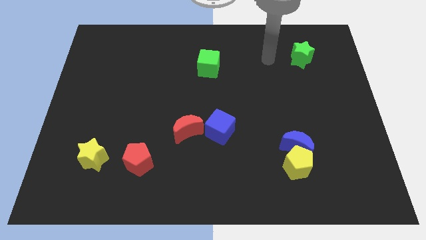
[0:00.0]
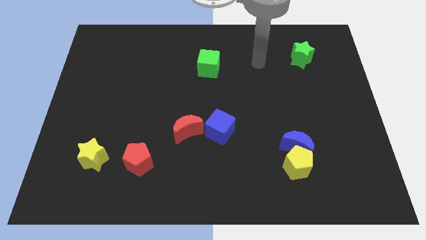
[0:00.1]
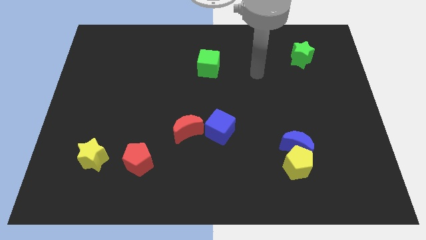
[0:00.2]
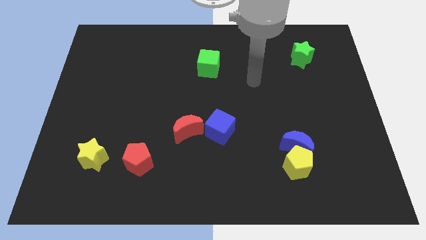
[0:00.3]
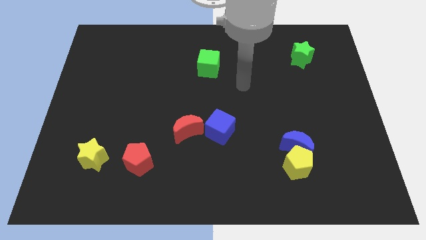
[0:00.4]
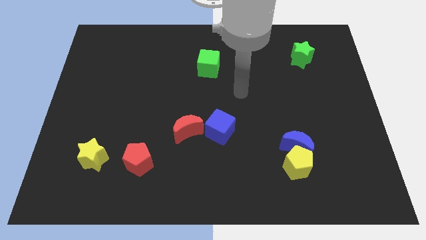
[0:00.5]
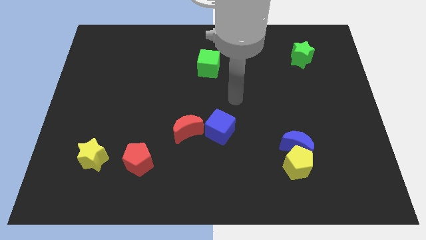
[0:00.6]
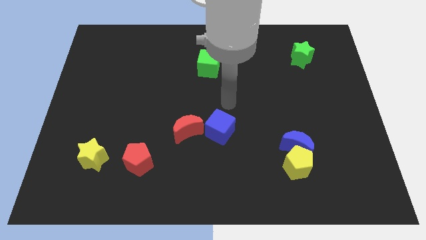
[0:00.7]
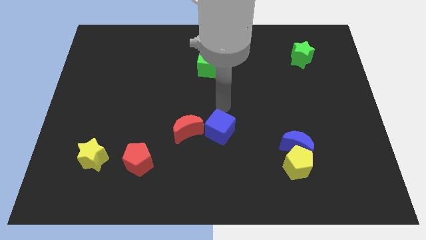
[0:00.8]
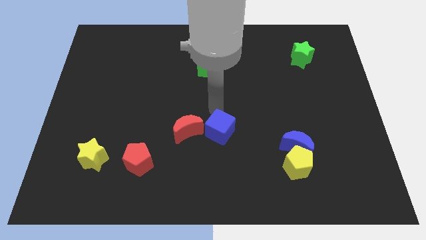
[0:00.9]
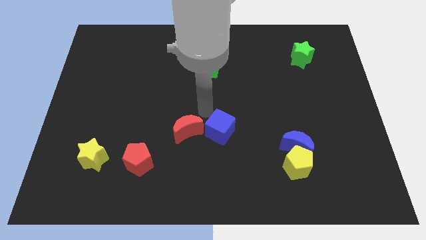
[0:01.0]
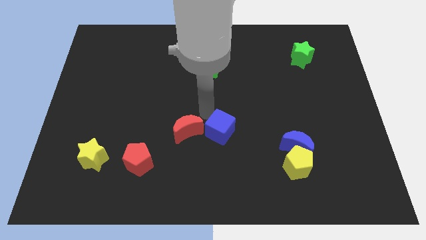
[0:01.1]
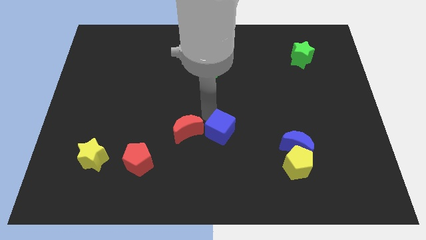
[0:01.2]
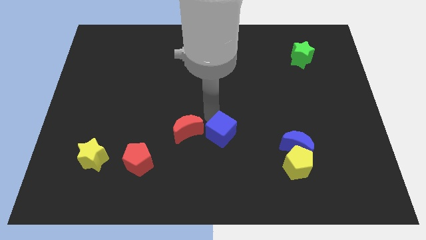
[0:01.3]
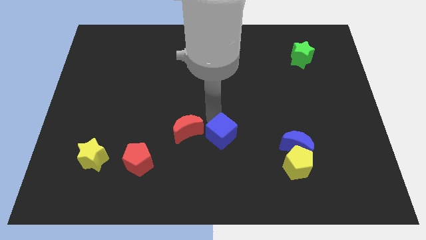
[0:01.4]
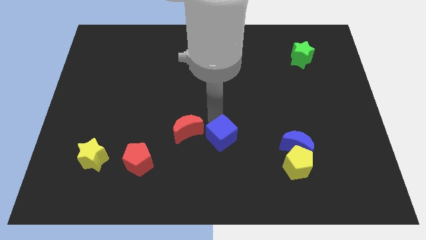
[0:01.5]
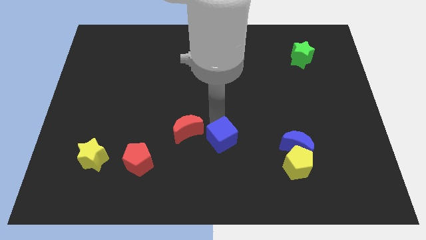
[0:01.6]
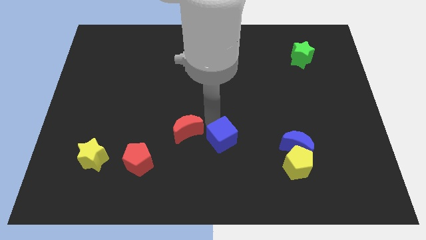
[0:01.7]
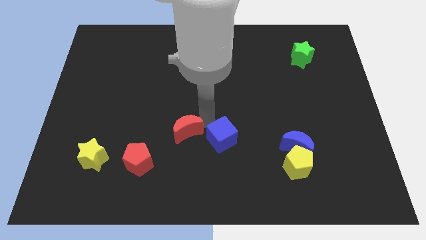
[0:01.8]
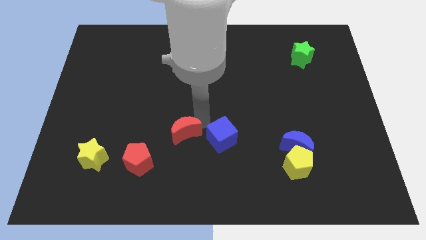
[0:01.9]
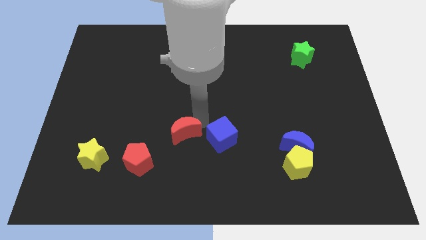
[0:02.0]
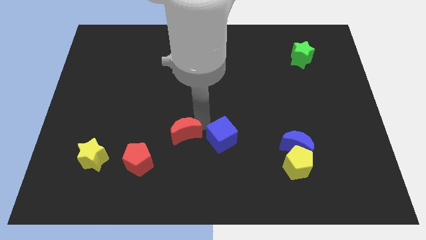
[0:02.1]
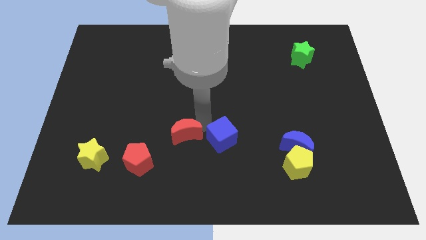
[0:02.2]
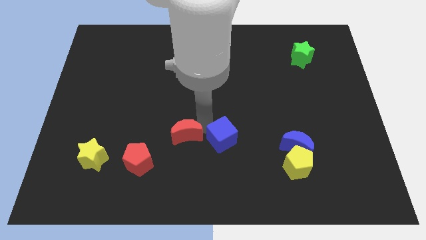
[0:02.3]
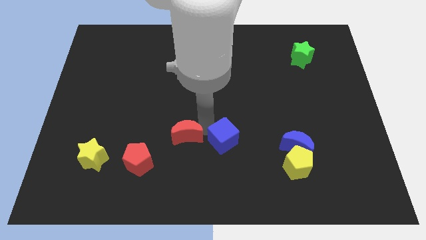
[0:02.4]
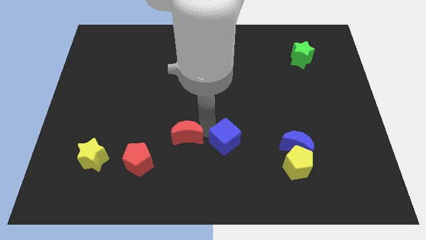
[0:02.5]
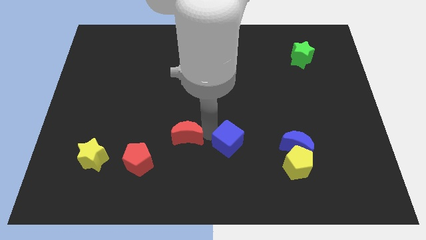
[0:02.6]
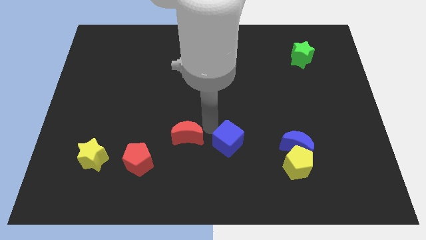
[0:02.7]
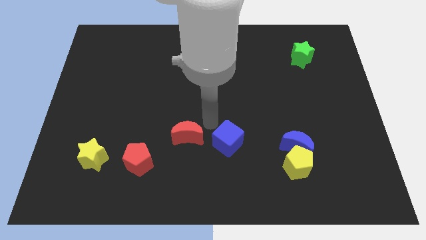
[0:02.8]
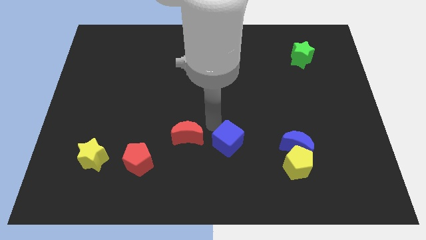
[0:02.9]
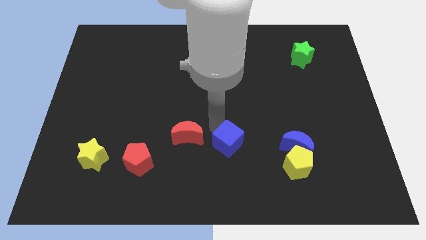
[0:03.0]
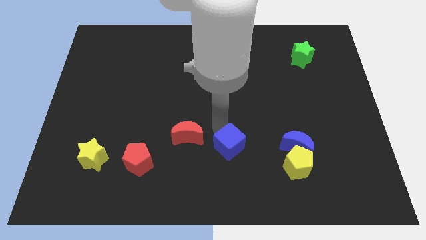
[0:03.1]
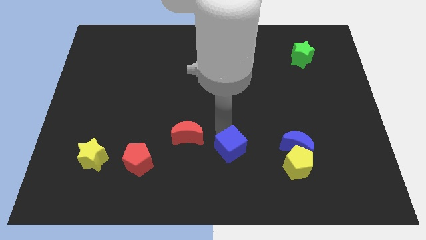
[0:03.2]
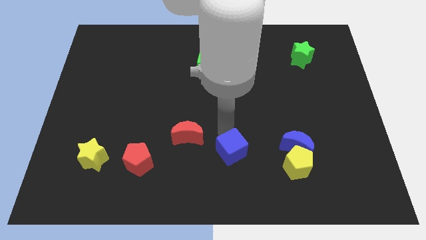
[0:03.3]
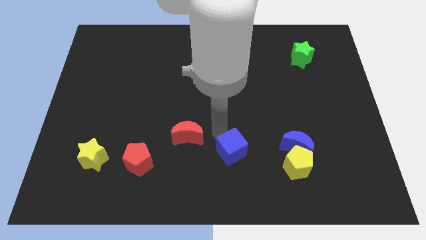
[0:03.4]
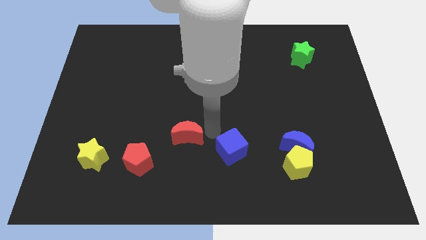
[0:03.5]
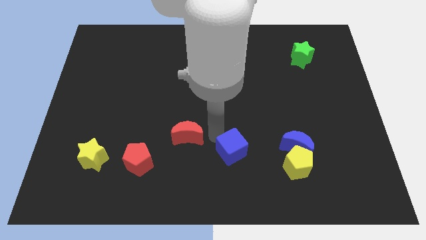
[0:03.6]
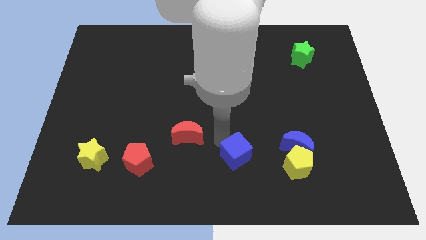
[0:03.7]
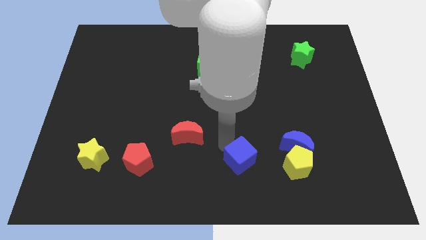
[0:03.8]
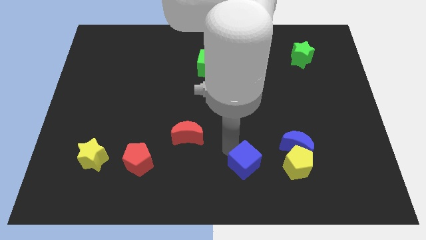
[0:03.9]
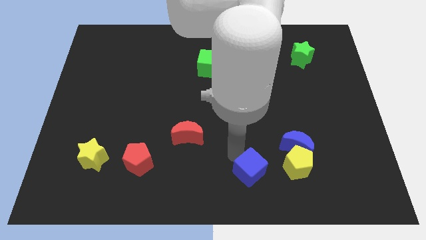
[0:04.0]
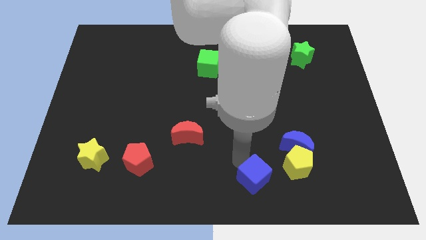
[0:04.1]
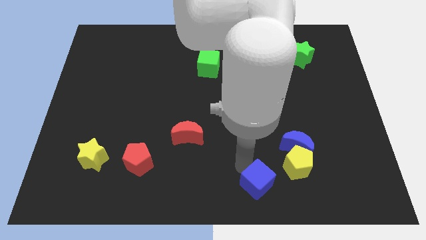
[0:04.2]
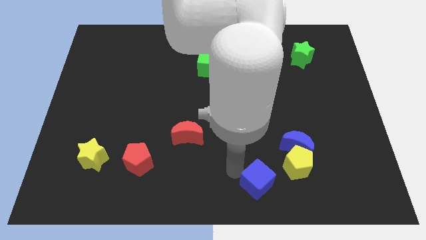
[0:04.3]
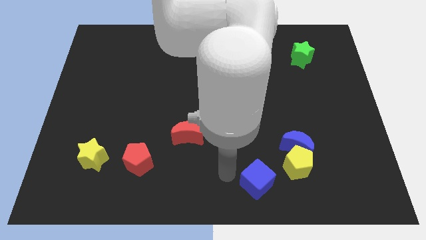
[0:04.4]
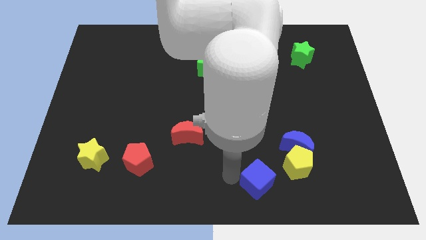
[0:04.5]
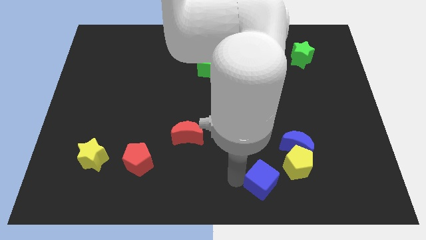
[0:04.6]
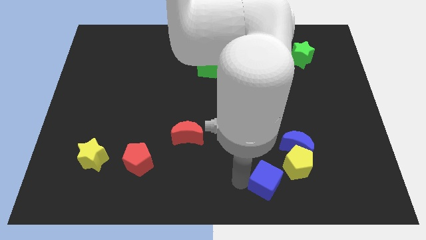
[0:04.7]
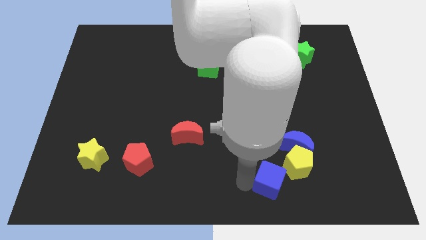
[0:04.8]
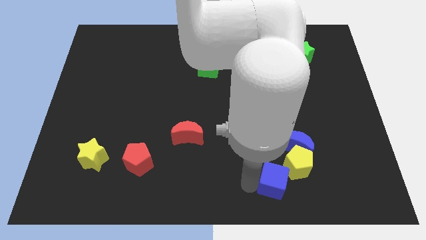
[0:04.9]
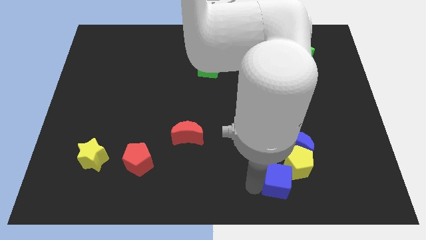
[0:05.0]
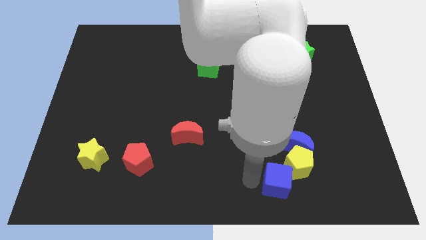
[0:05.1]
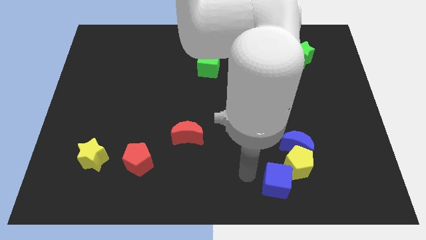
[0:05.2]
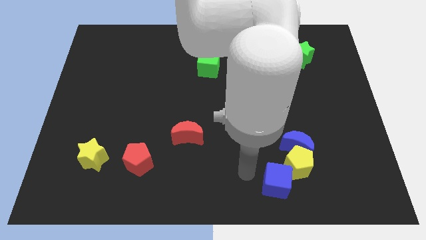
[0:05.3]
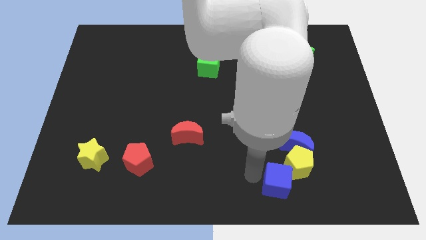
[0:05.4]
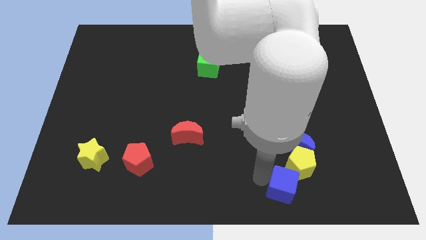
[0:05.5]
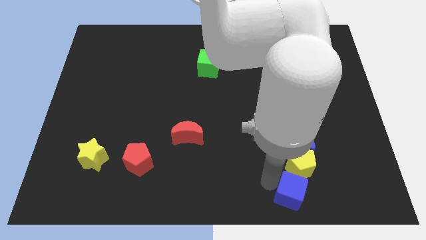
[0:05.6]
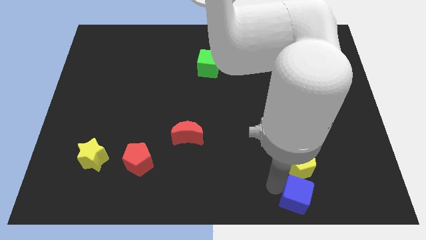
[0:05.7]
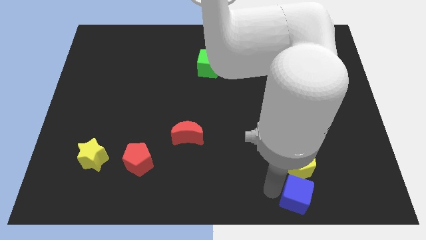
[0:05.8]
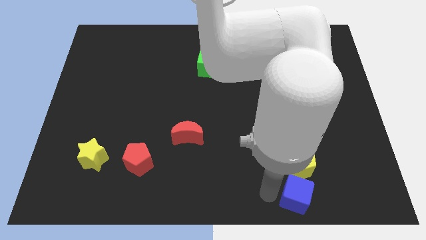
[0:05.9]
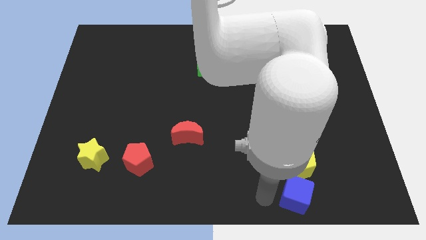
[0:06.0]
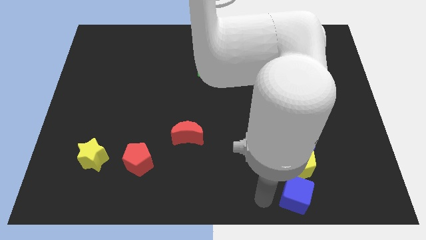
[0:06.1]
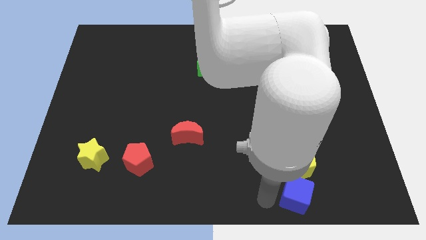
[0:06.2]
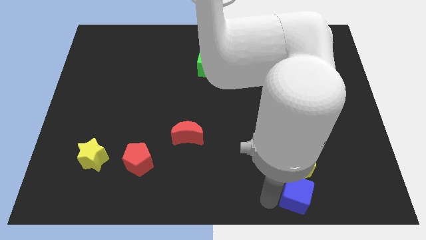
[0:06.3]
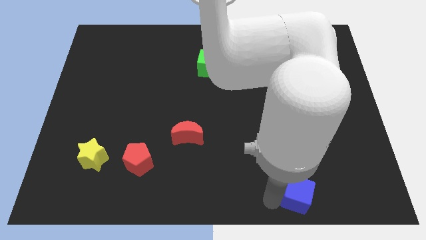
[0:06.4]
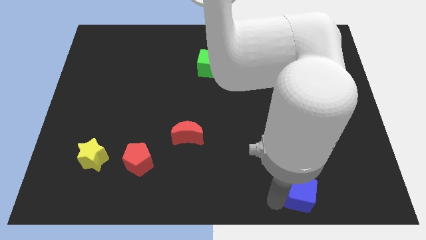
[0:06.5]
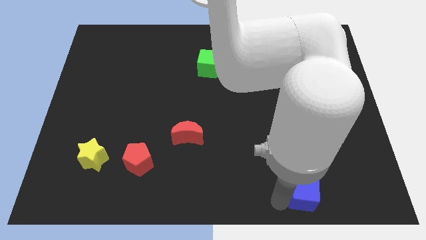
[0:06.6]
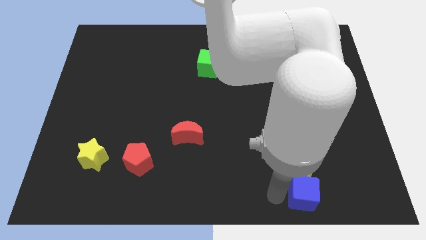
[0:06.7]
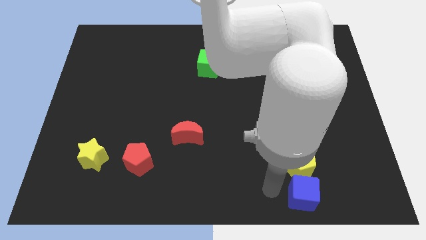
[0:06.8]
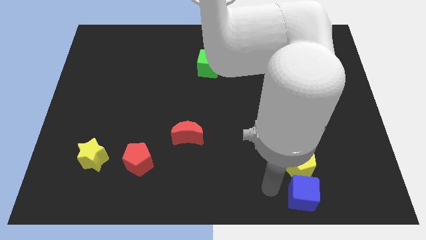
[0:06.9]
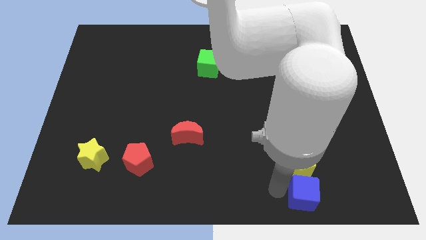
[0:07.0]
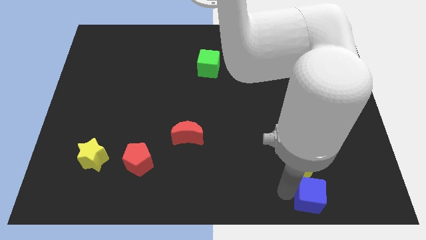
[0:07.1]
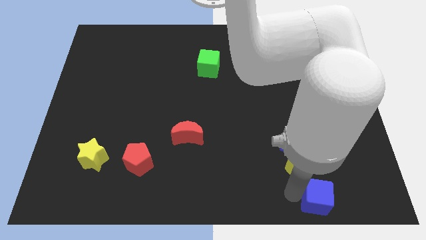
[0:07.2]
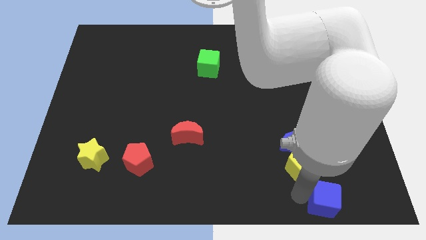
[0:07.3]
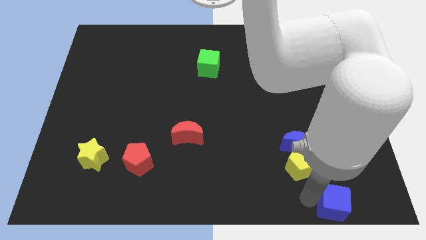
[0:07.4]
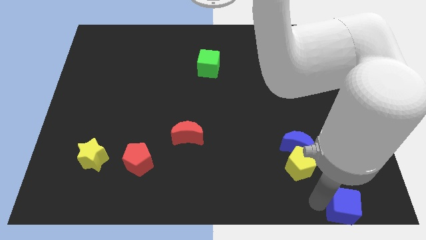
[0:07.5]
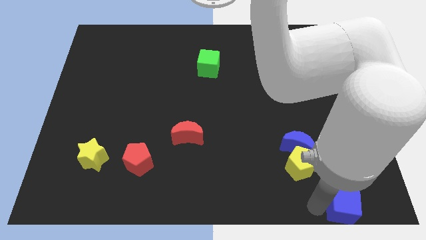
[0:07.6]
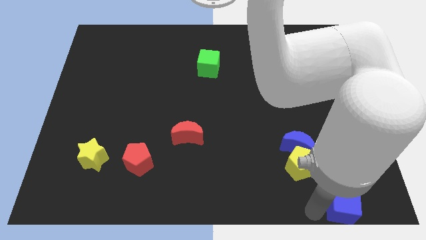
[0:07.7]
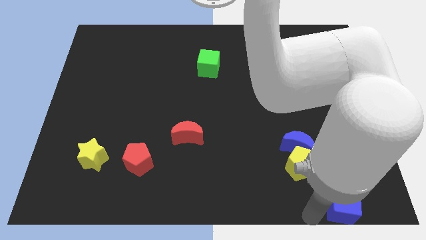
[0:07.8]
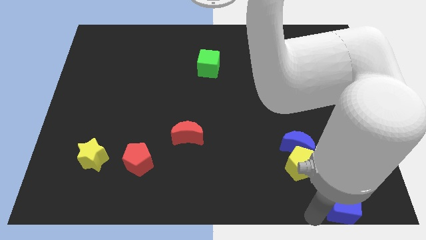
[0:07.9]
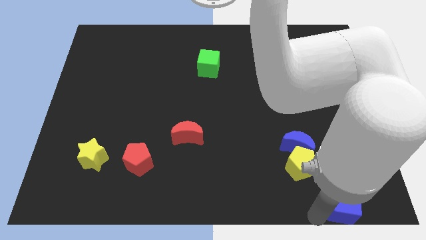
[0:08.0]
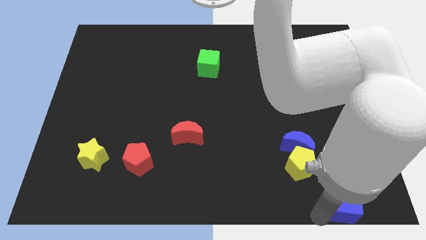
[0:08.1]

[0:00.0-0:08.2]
push the blue cube to the bottom right of the board
